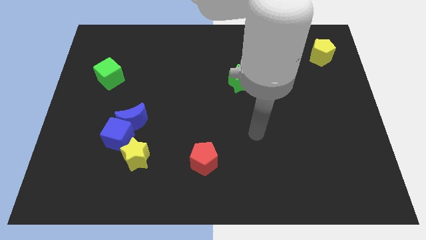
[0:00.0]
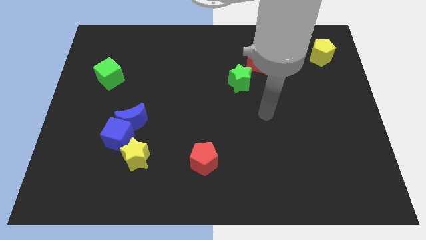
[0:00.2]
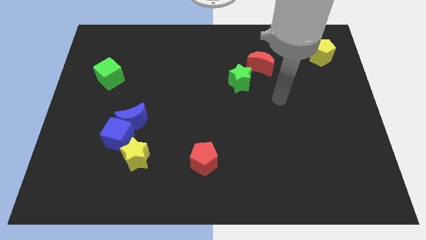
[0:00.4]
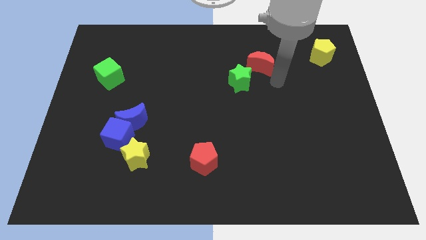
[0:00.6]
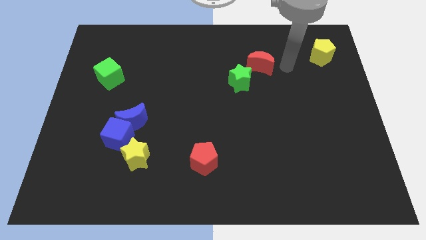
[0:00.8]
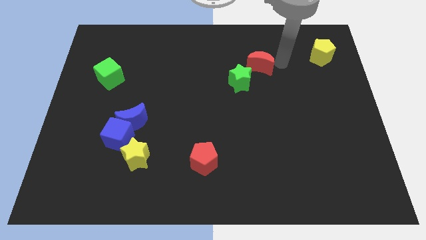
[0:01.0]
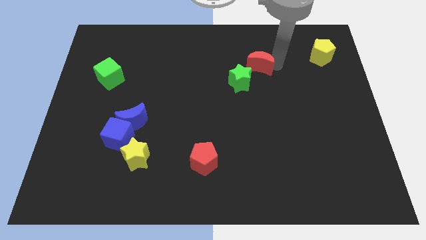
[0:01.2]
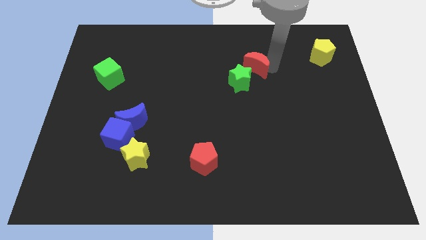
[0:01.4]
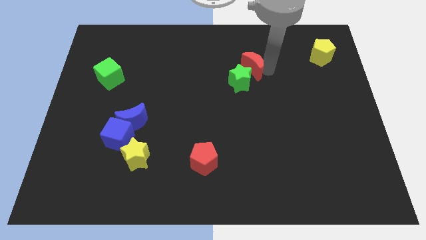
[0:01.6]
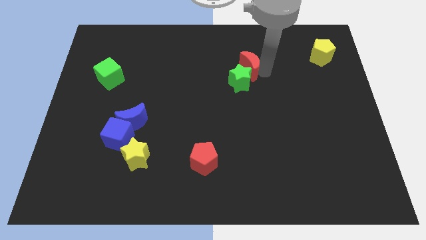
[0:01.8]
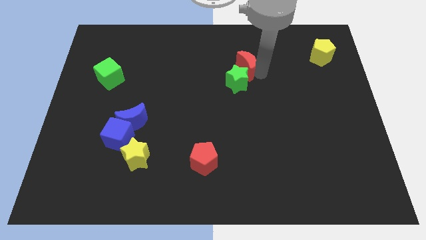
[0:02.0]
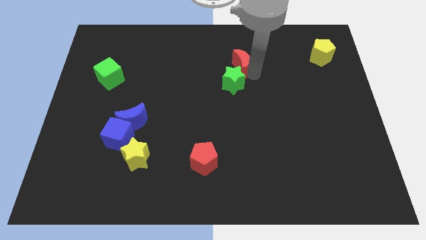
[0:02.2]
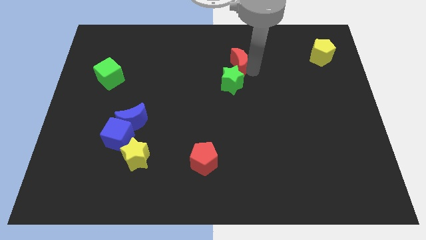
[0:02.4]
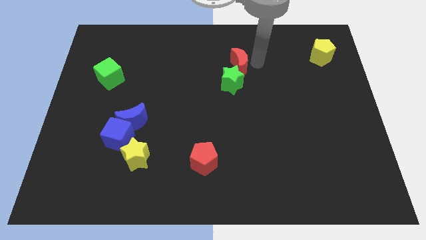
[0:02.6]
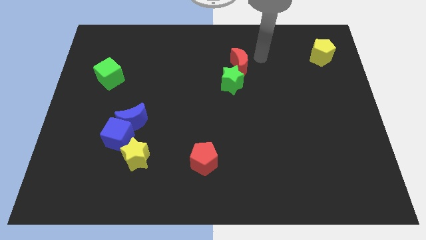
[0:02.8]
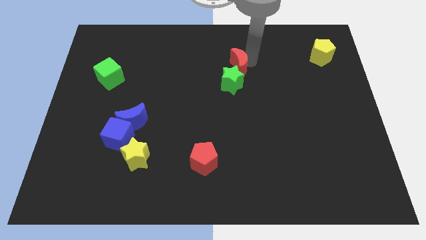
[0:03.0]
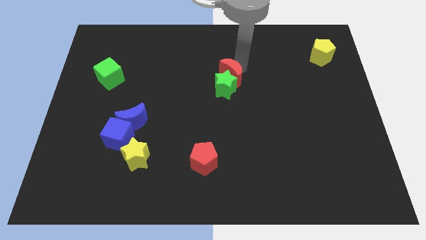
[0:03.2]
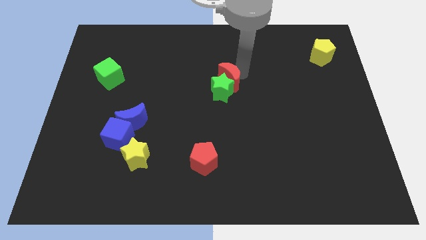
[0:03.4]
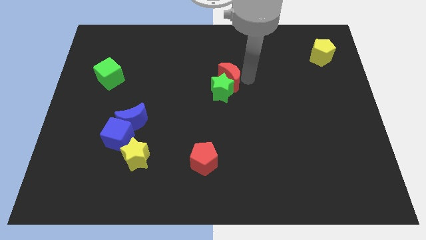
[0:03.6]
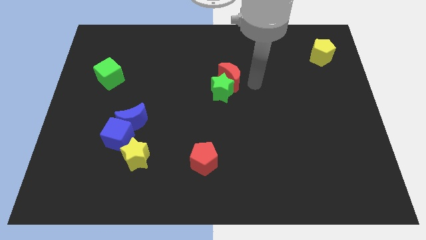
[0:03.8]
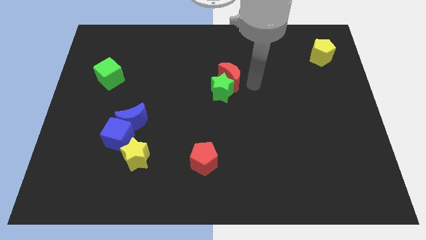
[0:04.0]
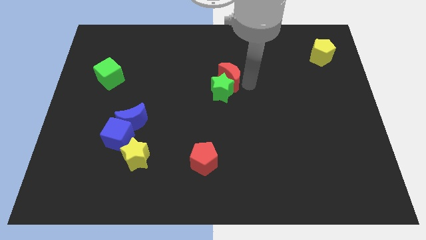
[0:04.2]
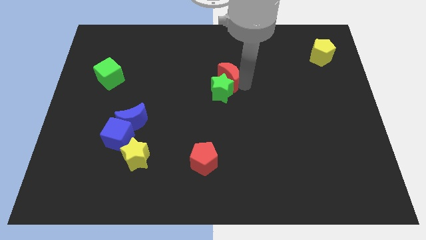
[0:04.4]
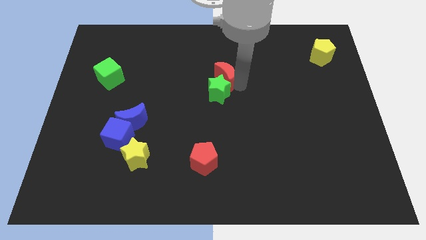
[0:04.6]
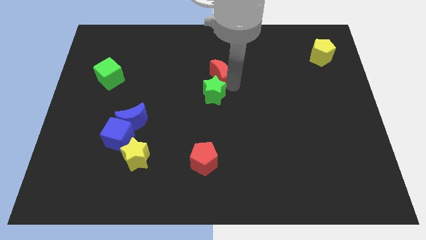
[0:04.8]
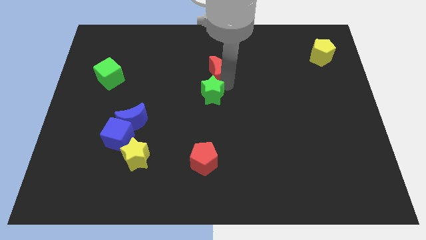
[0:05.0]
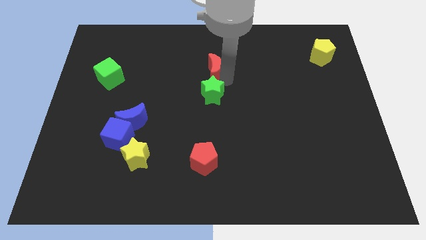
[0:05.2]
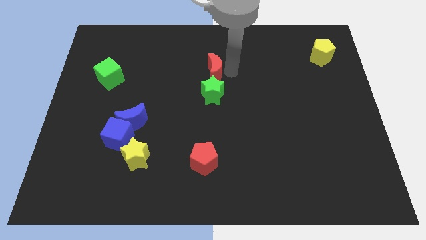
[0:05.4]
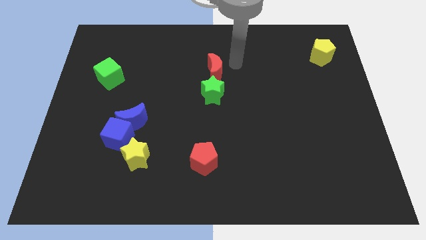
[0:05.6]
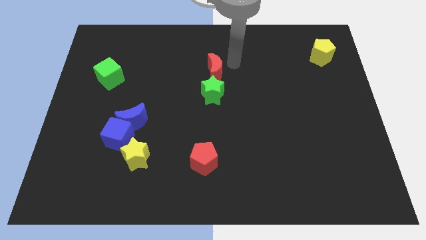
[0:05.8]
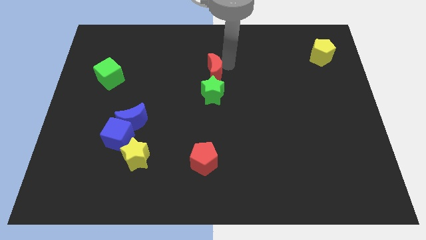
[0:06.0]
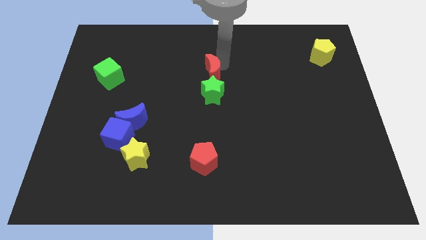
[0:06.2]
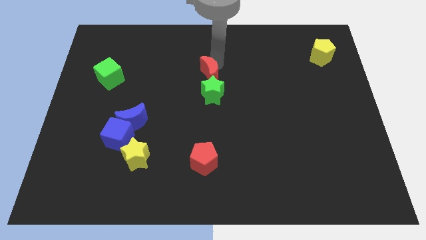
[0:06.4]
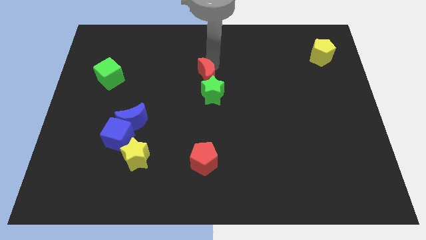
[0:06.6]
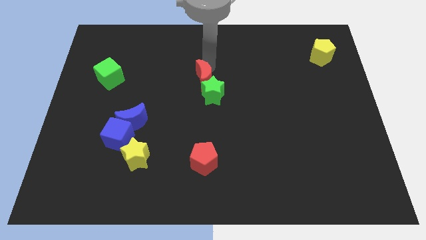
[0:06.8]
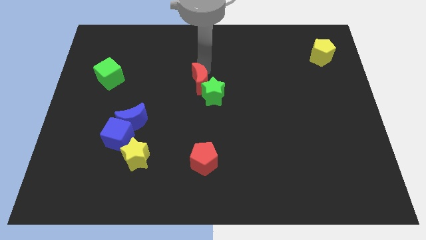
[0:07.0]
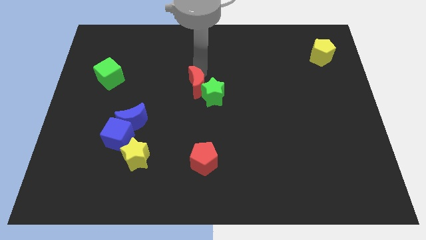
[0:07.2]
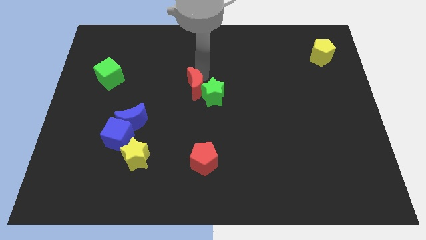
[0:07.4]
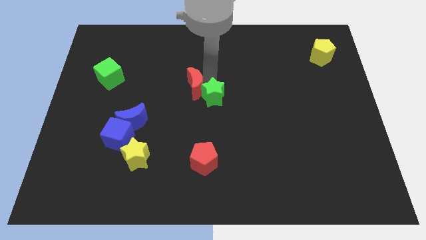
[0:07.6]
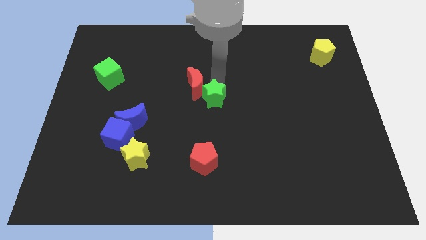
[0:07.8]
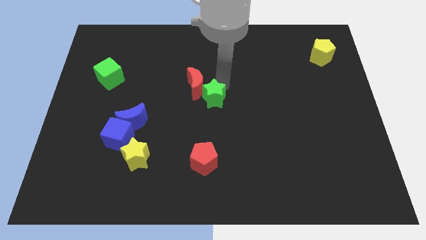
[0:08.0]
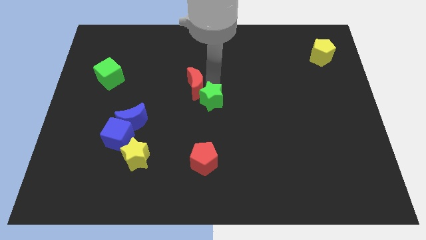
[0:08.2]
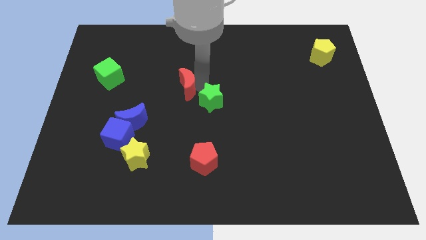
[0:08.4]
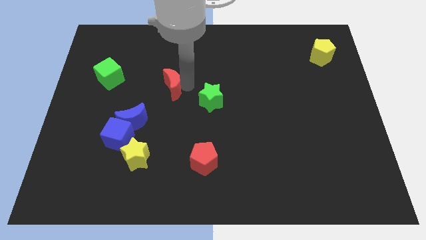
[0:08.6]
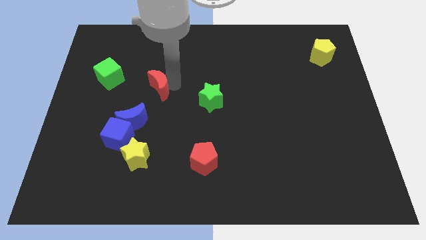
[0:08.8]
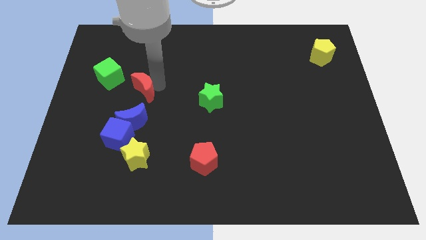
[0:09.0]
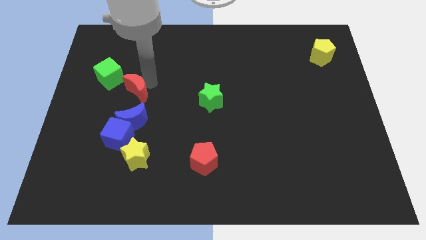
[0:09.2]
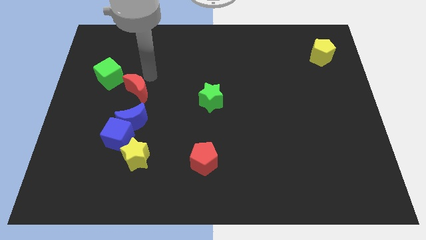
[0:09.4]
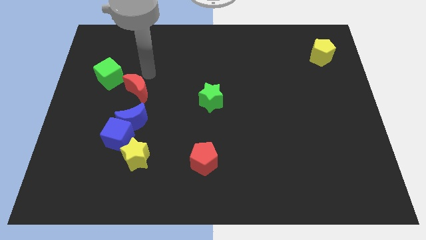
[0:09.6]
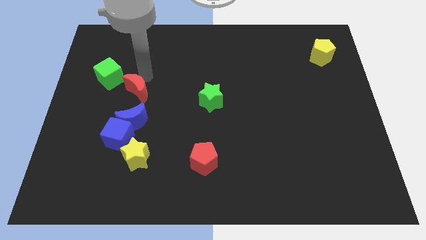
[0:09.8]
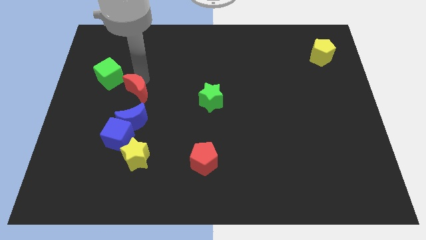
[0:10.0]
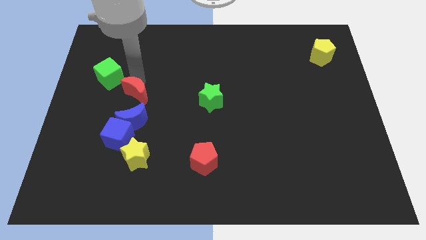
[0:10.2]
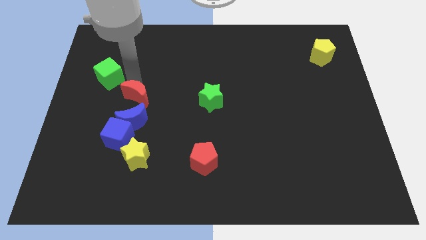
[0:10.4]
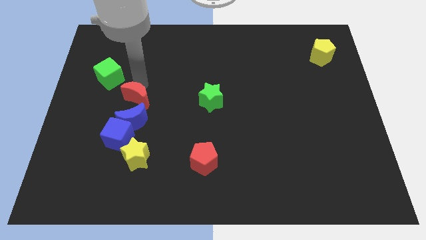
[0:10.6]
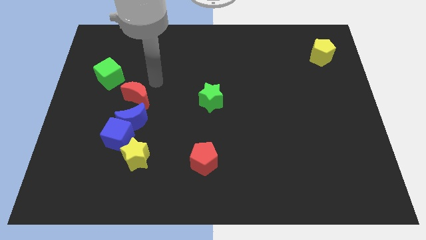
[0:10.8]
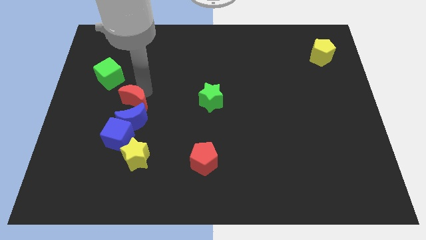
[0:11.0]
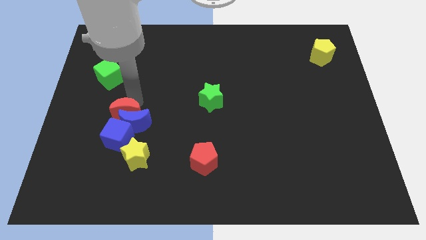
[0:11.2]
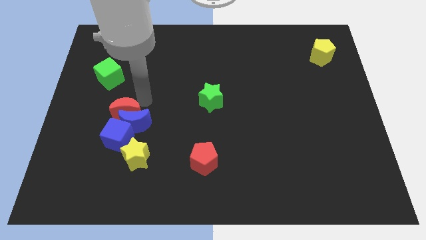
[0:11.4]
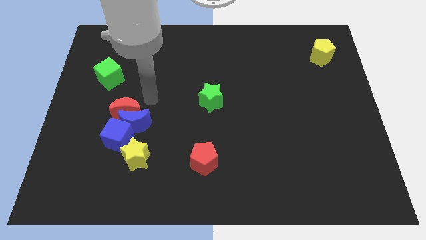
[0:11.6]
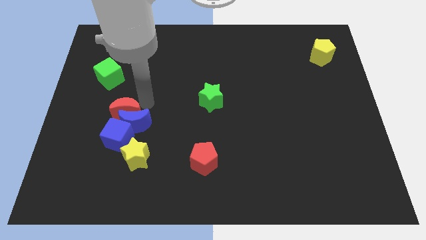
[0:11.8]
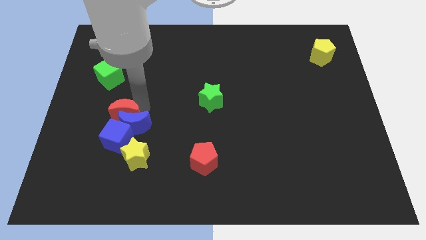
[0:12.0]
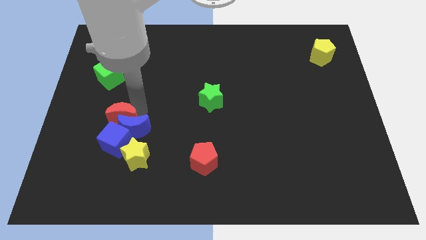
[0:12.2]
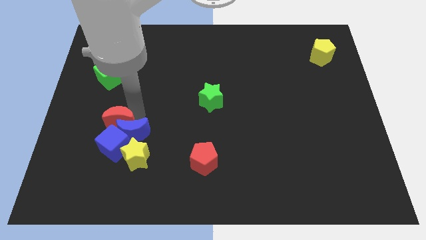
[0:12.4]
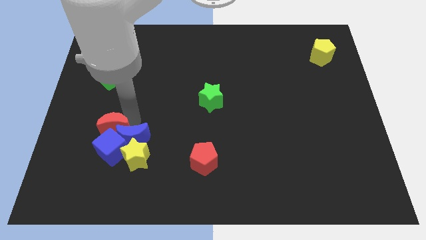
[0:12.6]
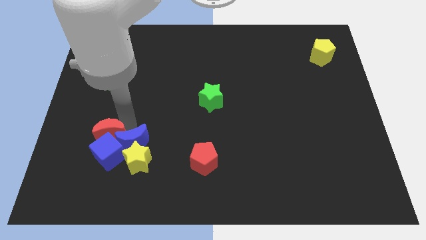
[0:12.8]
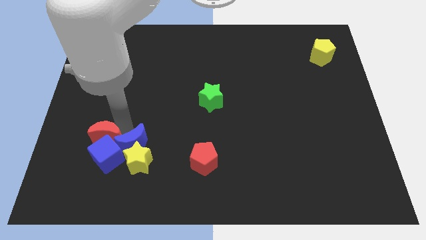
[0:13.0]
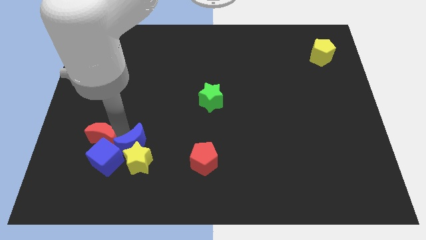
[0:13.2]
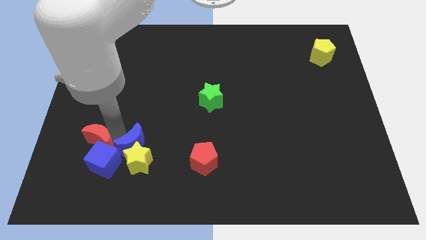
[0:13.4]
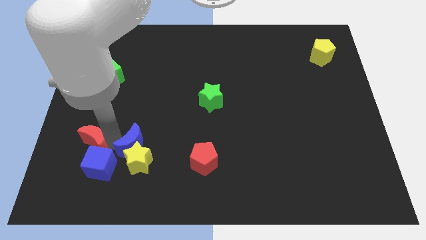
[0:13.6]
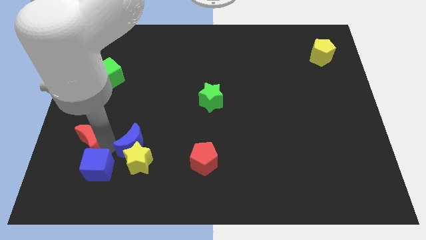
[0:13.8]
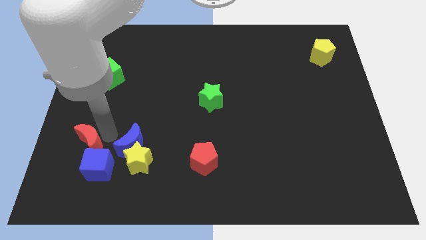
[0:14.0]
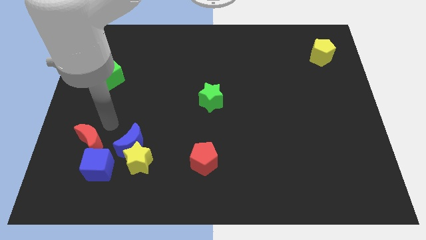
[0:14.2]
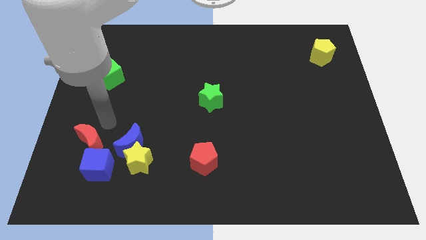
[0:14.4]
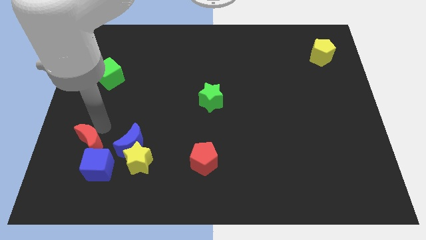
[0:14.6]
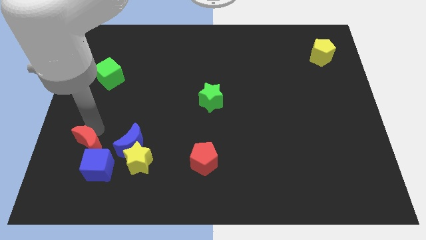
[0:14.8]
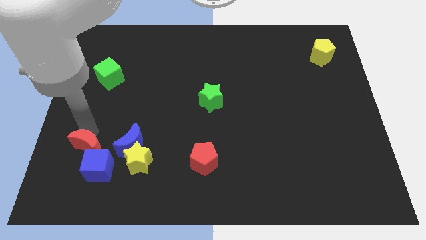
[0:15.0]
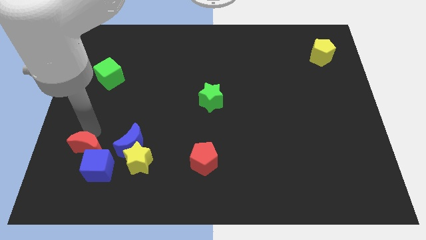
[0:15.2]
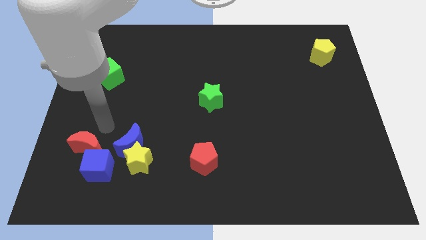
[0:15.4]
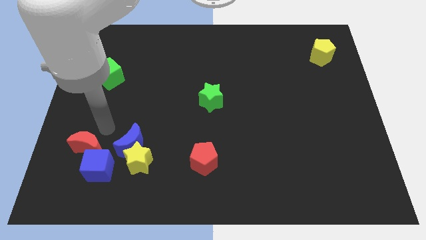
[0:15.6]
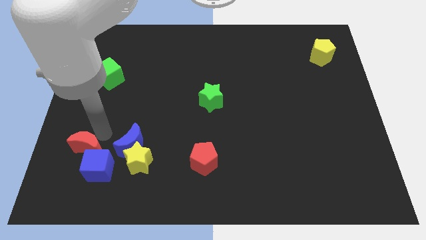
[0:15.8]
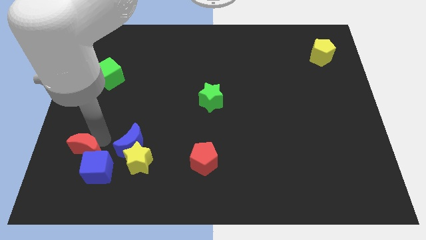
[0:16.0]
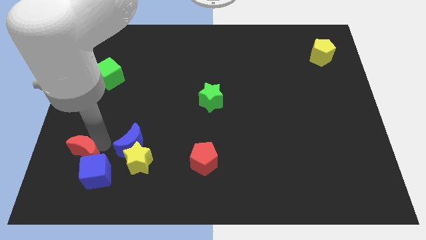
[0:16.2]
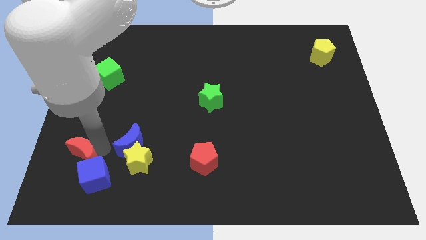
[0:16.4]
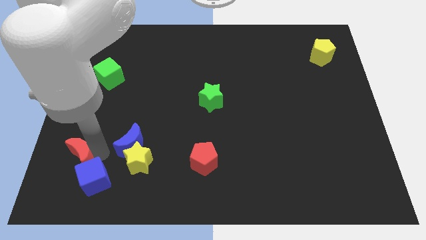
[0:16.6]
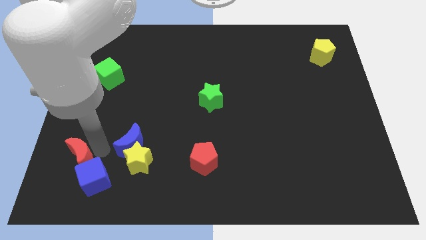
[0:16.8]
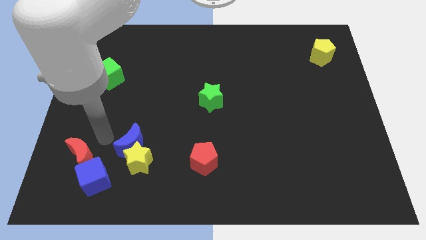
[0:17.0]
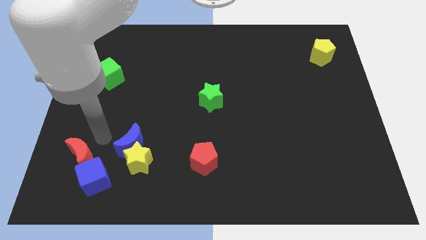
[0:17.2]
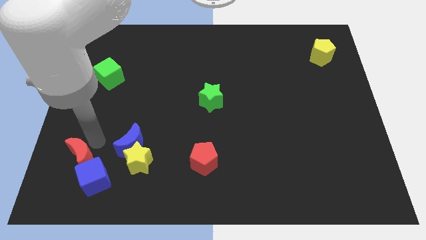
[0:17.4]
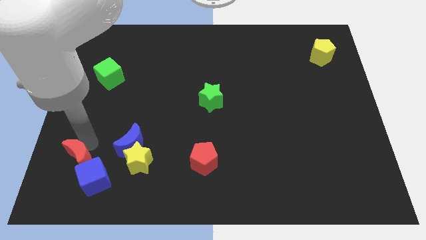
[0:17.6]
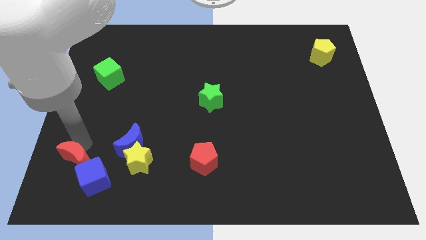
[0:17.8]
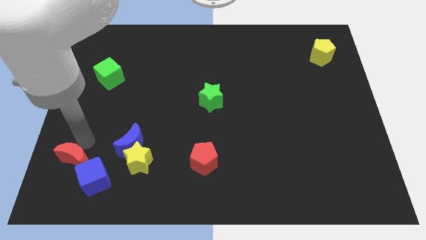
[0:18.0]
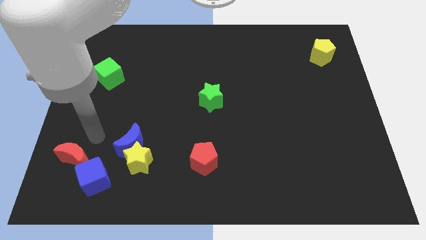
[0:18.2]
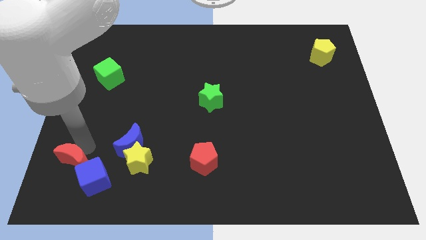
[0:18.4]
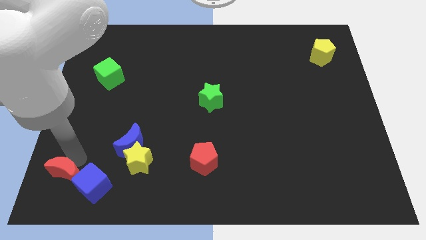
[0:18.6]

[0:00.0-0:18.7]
put the red moon to the bottom left corner
